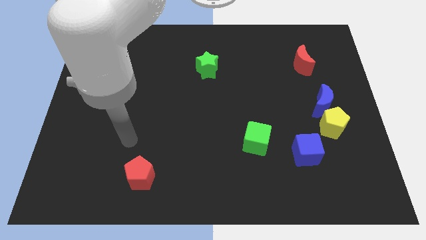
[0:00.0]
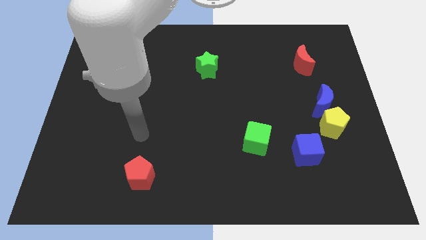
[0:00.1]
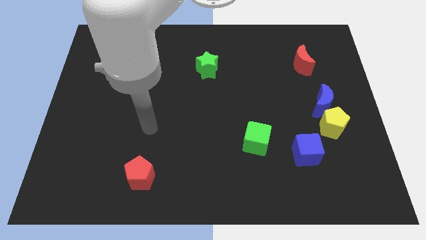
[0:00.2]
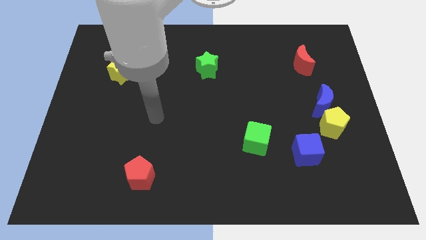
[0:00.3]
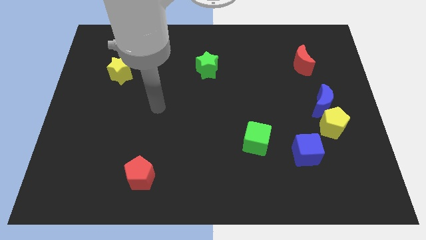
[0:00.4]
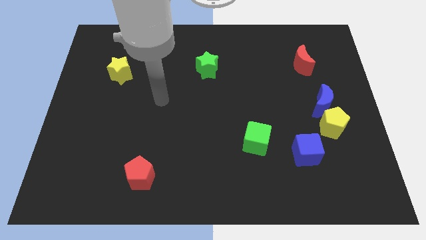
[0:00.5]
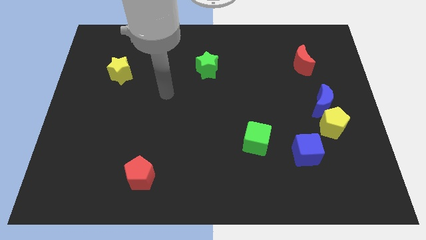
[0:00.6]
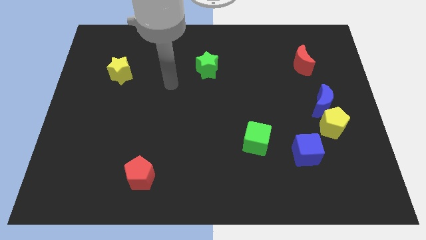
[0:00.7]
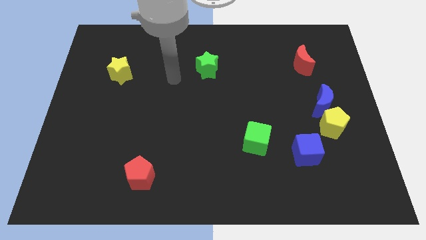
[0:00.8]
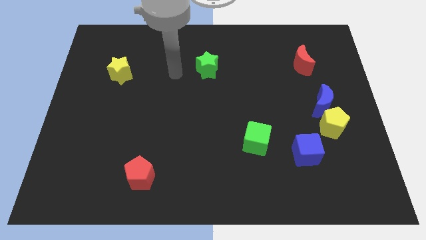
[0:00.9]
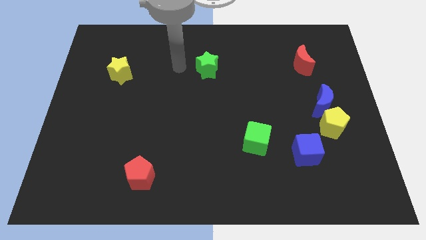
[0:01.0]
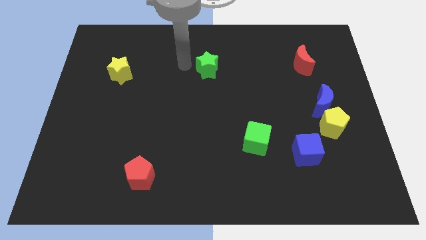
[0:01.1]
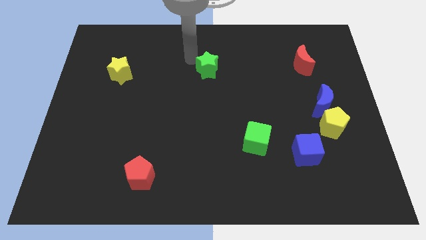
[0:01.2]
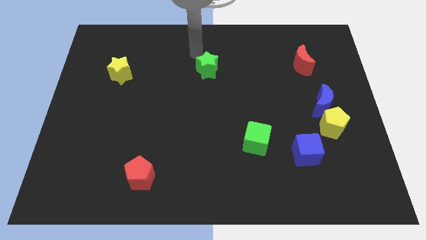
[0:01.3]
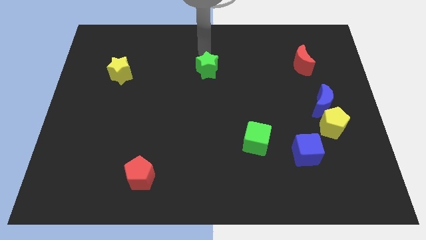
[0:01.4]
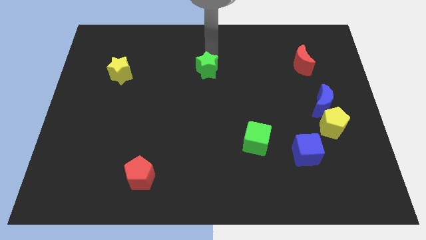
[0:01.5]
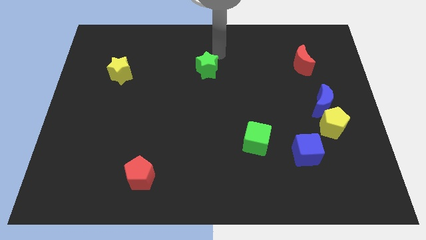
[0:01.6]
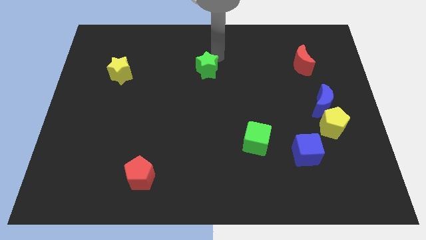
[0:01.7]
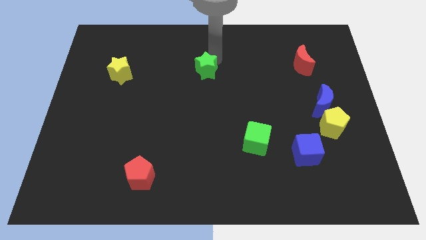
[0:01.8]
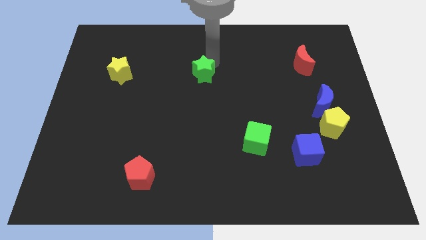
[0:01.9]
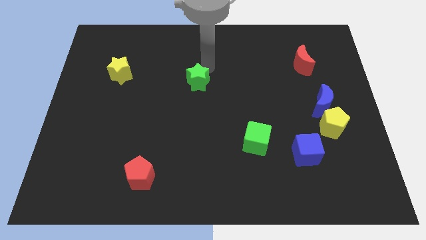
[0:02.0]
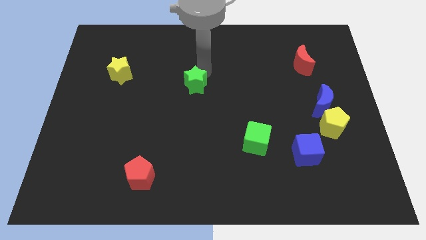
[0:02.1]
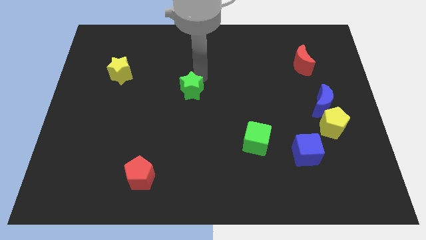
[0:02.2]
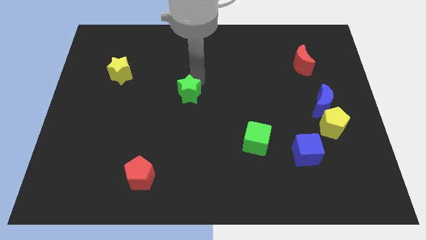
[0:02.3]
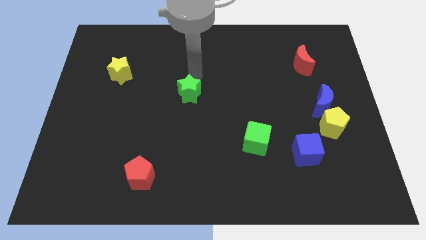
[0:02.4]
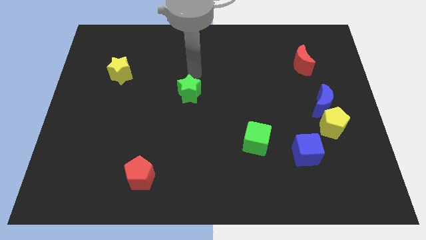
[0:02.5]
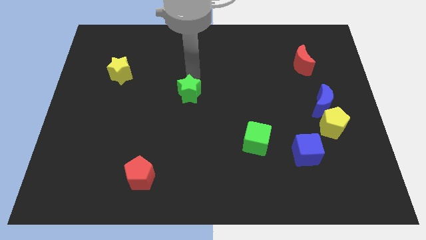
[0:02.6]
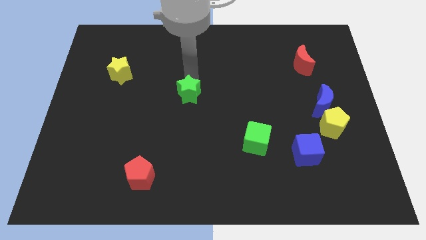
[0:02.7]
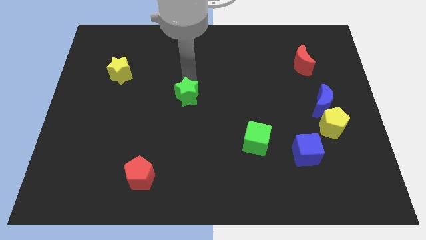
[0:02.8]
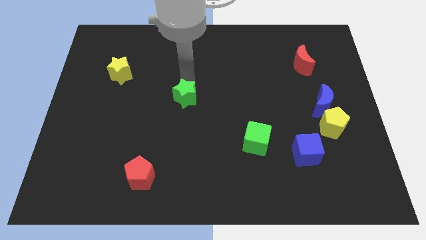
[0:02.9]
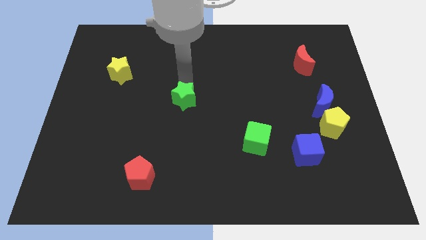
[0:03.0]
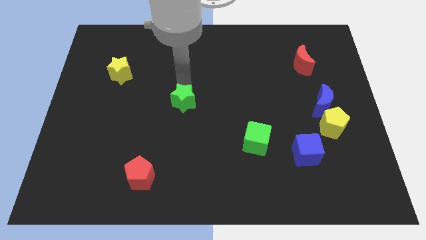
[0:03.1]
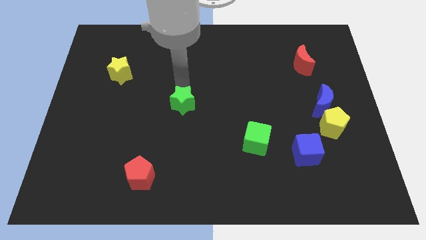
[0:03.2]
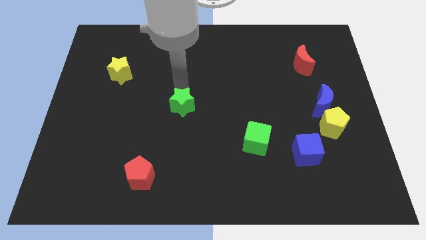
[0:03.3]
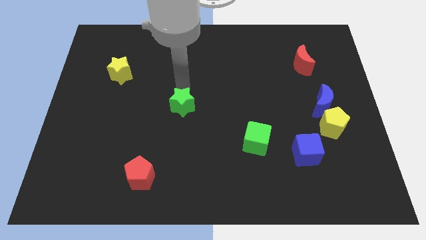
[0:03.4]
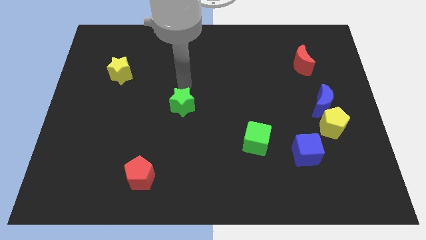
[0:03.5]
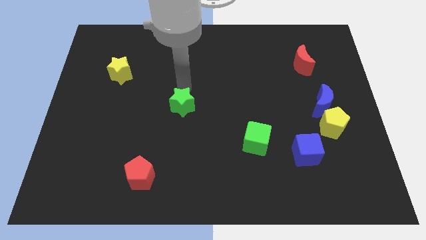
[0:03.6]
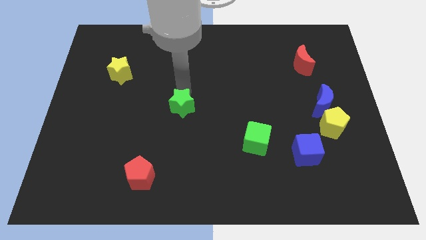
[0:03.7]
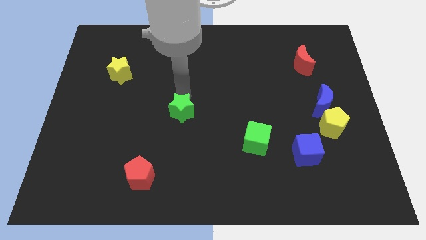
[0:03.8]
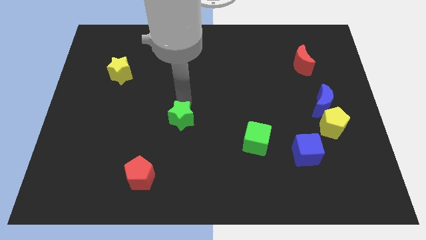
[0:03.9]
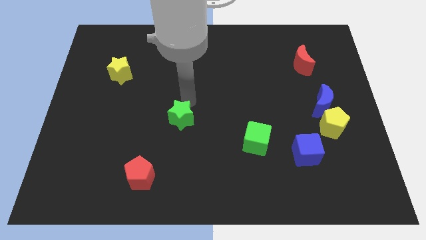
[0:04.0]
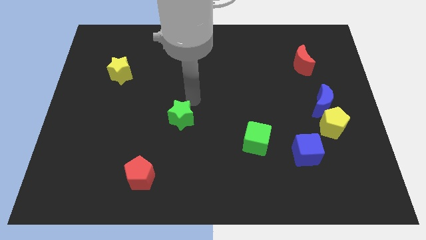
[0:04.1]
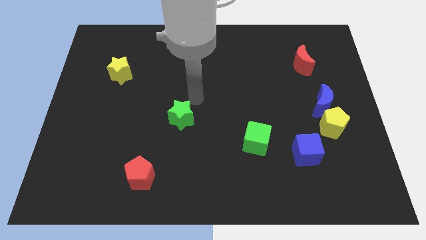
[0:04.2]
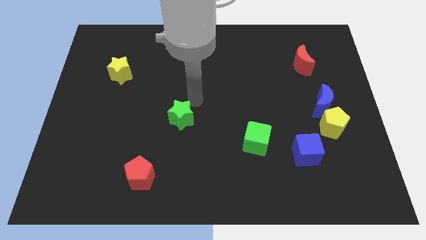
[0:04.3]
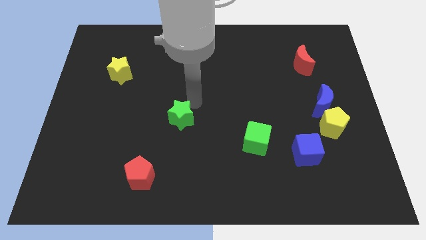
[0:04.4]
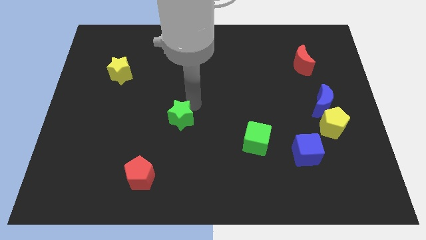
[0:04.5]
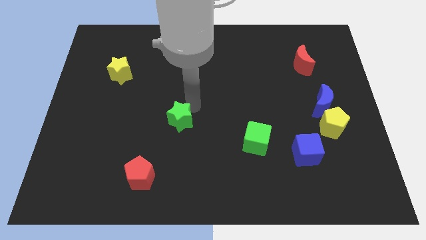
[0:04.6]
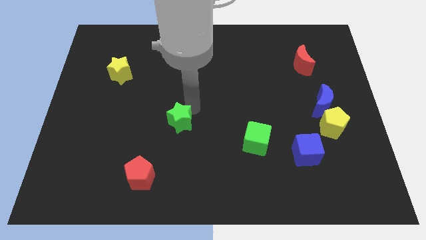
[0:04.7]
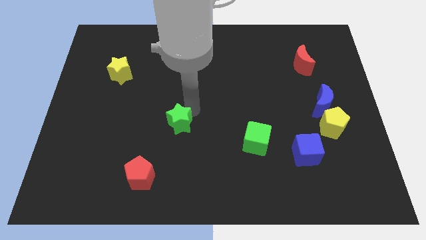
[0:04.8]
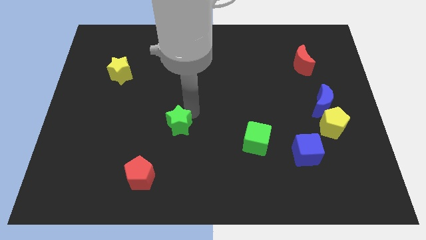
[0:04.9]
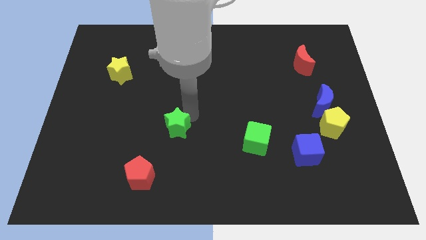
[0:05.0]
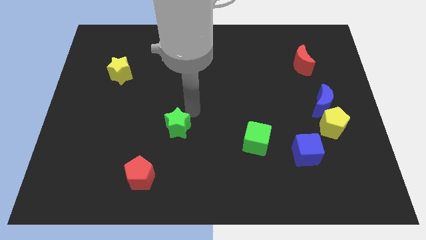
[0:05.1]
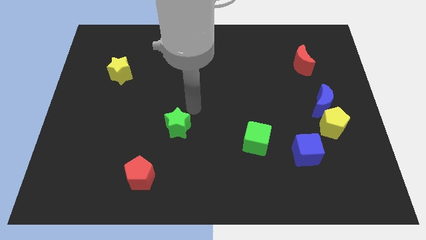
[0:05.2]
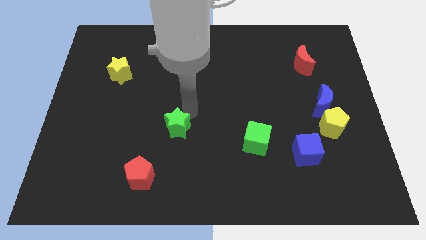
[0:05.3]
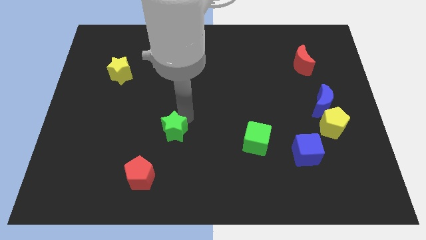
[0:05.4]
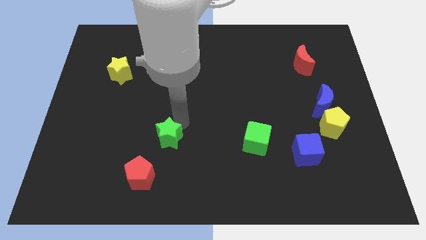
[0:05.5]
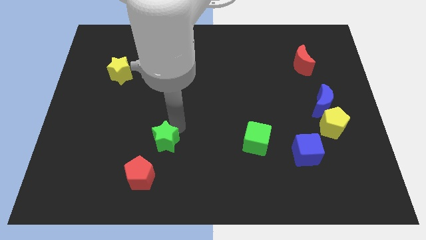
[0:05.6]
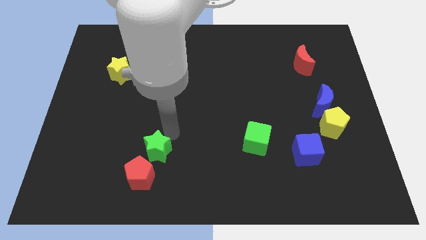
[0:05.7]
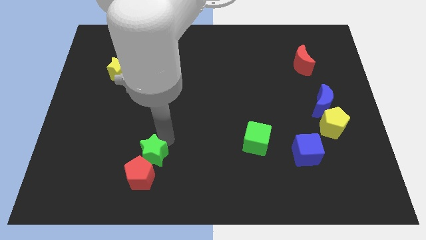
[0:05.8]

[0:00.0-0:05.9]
slide the green star close to the red pentagon

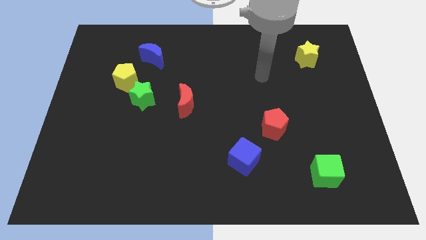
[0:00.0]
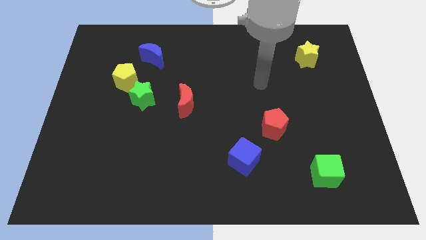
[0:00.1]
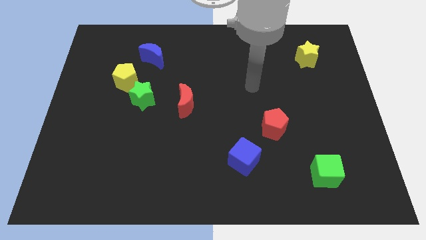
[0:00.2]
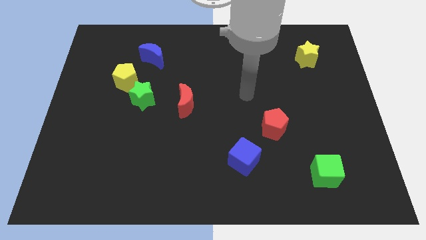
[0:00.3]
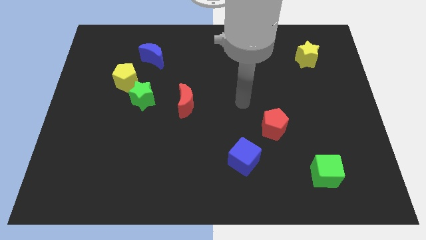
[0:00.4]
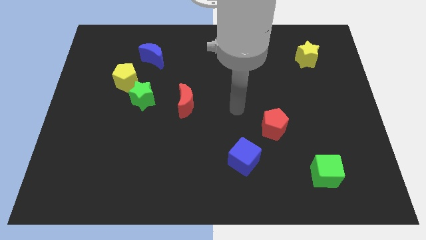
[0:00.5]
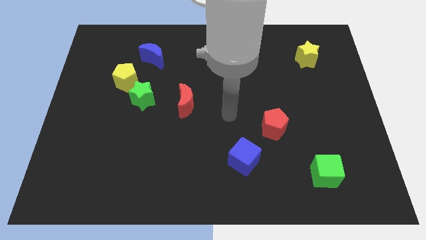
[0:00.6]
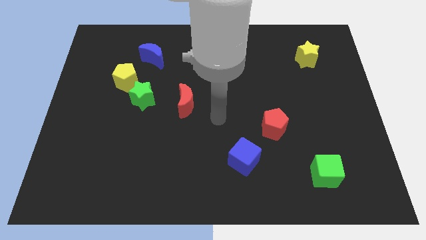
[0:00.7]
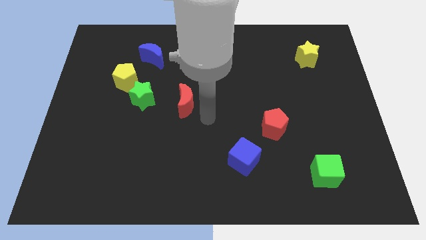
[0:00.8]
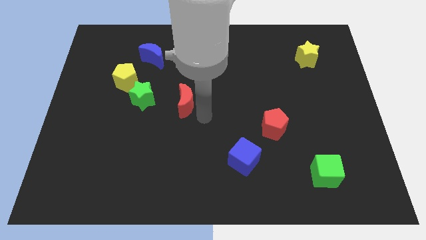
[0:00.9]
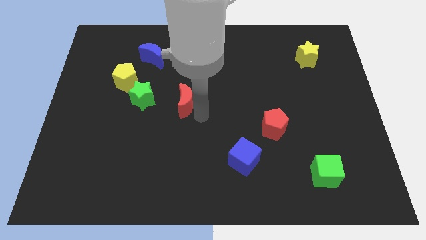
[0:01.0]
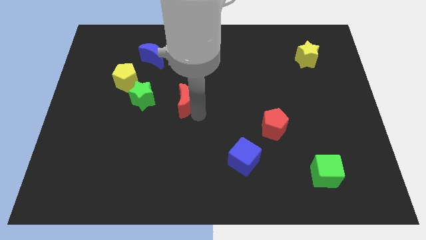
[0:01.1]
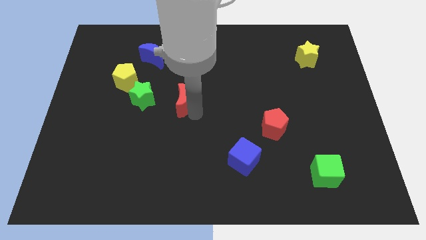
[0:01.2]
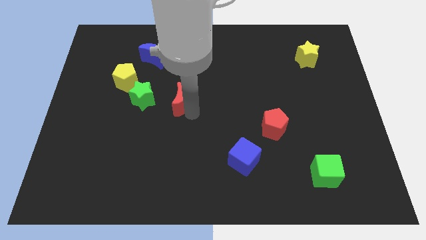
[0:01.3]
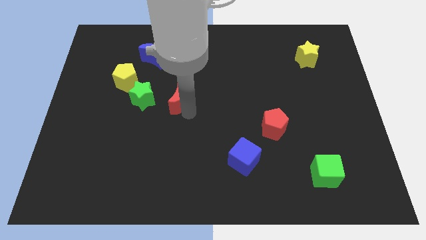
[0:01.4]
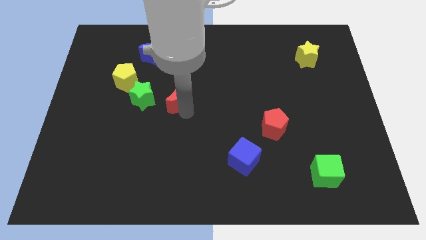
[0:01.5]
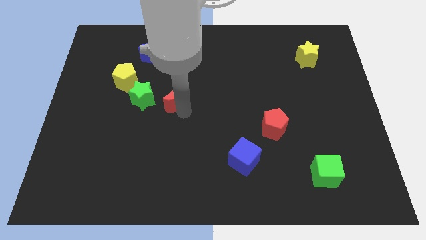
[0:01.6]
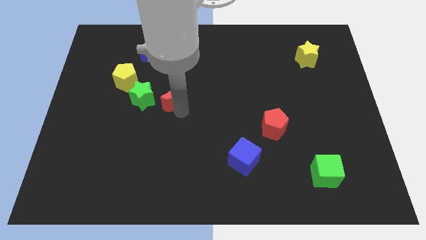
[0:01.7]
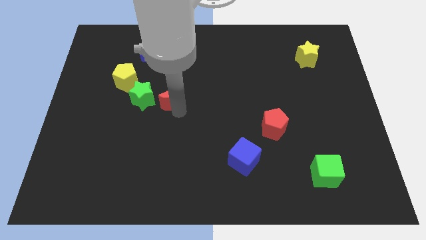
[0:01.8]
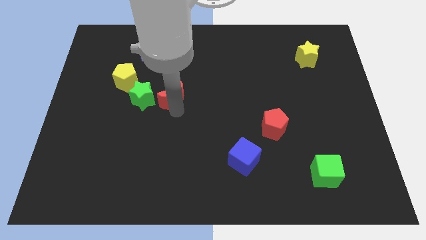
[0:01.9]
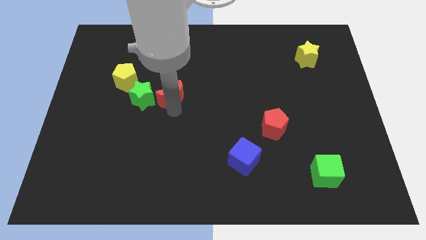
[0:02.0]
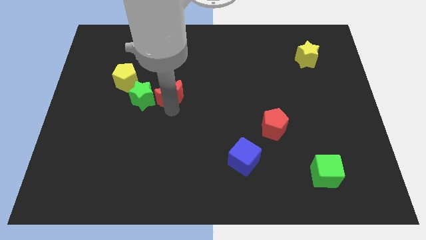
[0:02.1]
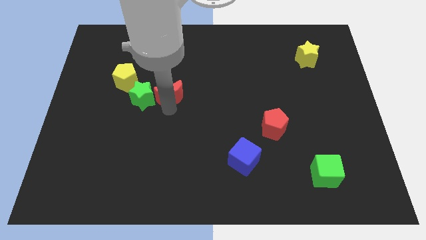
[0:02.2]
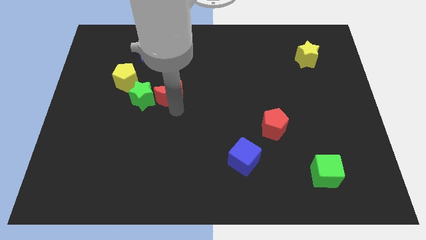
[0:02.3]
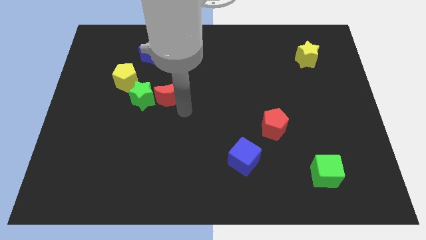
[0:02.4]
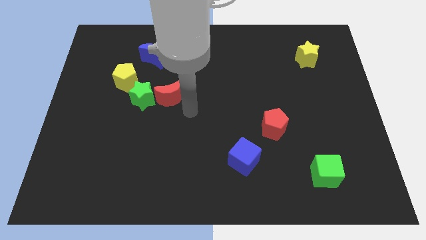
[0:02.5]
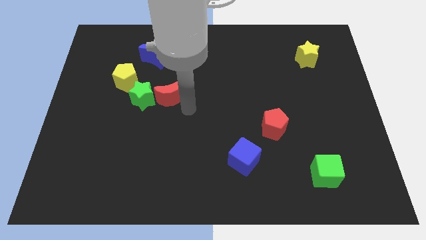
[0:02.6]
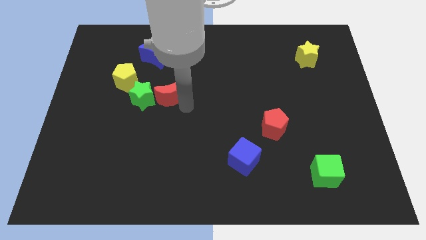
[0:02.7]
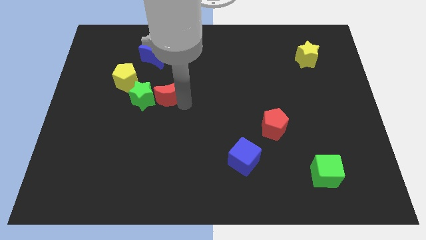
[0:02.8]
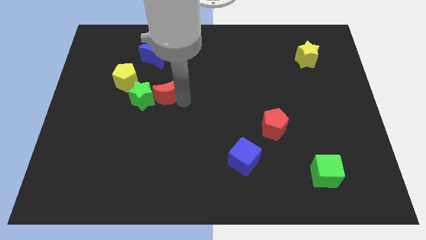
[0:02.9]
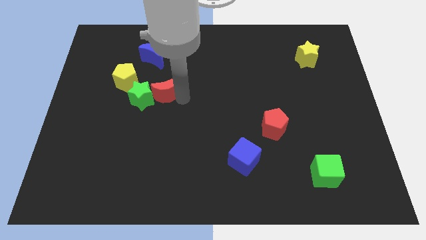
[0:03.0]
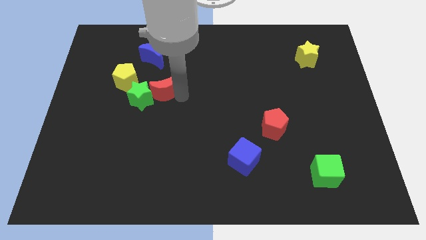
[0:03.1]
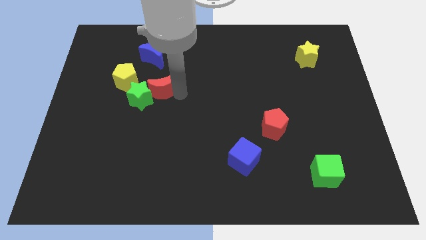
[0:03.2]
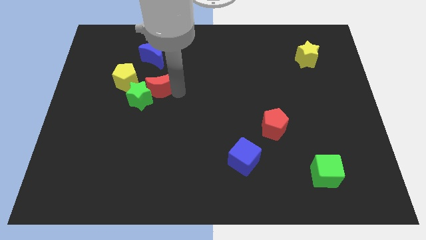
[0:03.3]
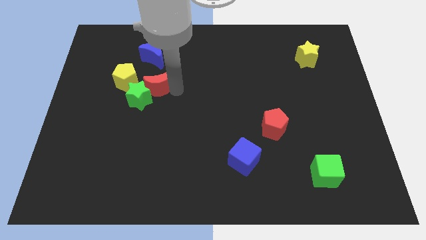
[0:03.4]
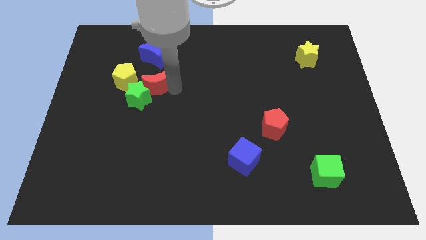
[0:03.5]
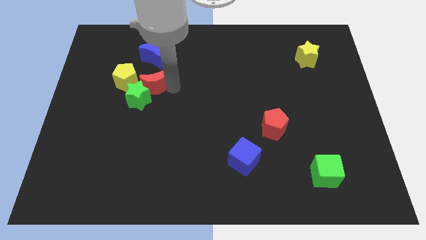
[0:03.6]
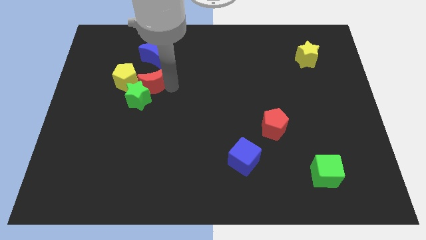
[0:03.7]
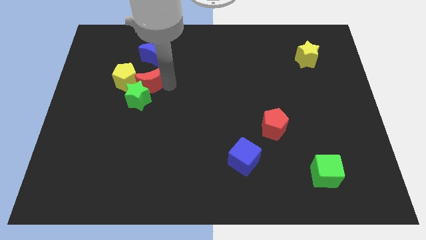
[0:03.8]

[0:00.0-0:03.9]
move the red moon close to the yellow pentagon
